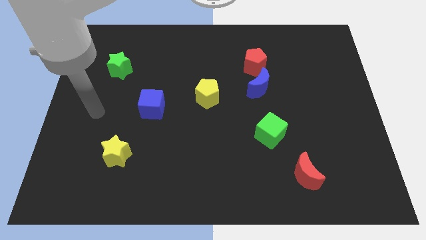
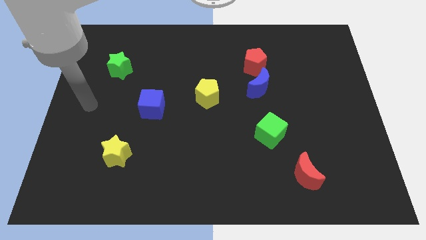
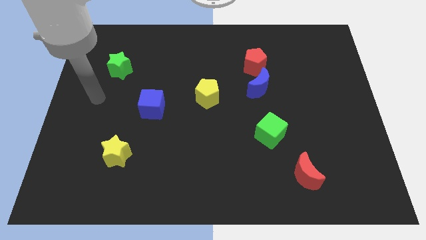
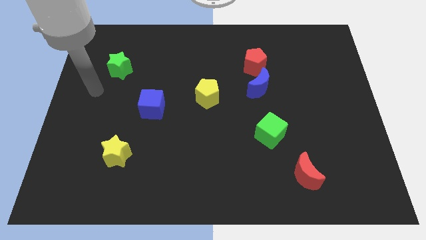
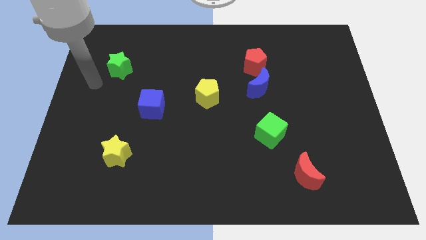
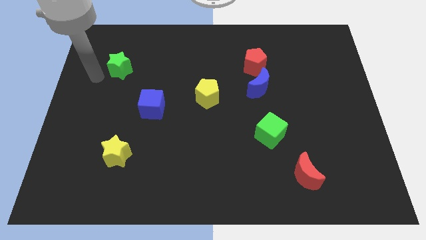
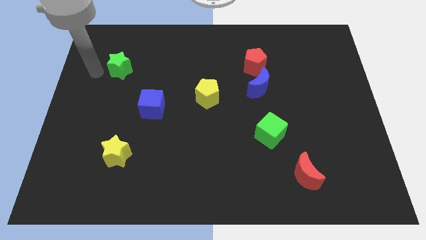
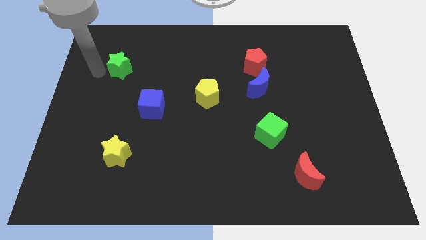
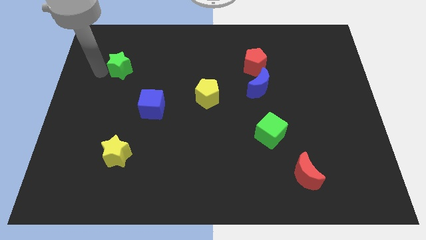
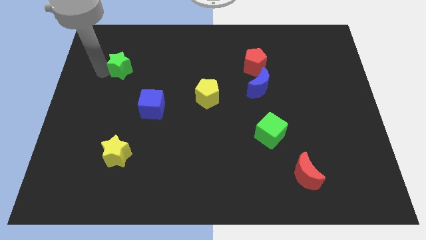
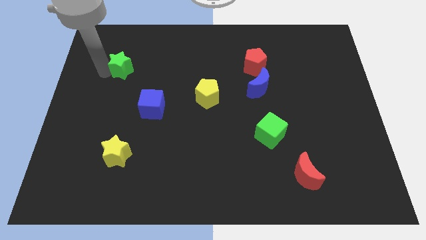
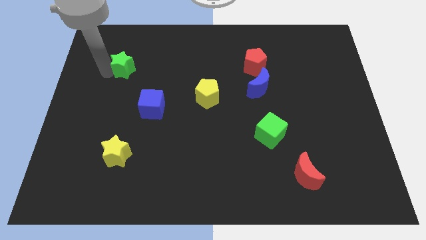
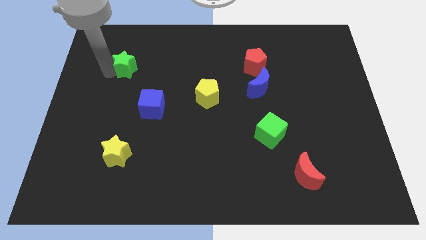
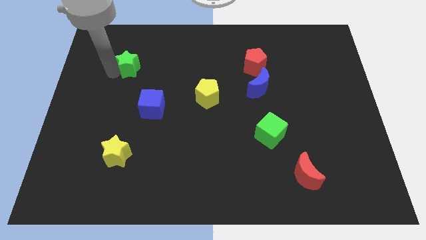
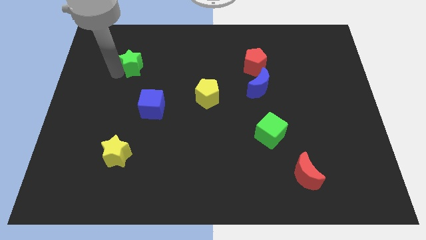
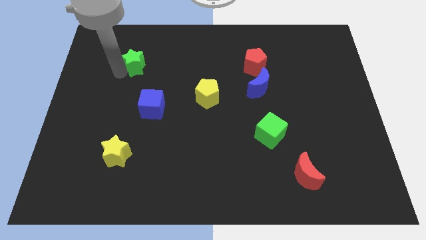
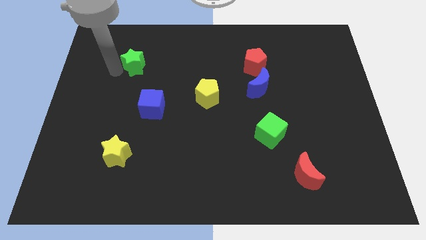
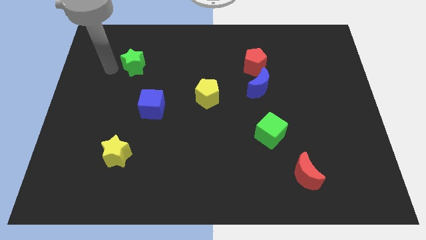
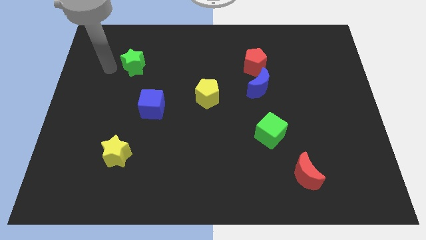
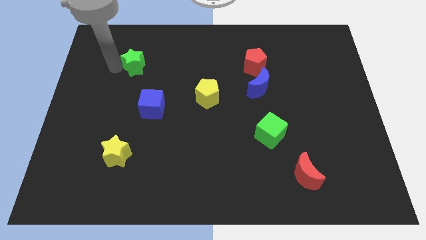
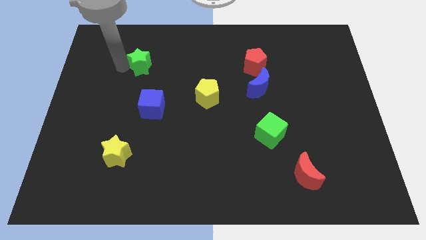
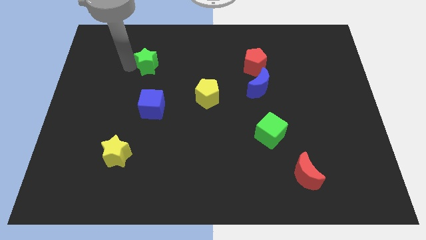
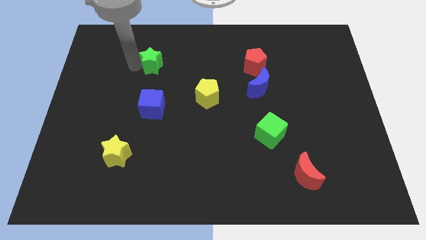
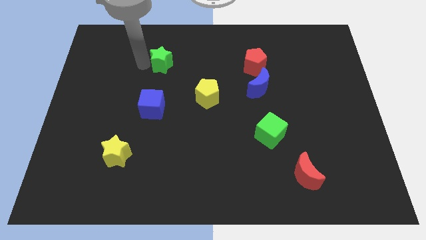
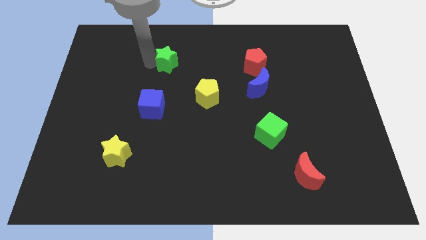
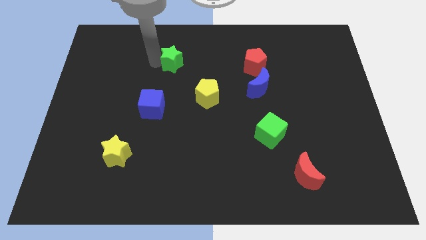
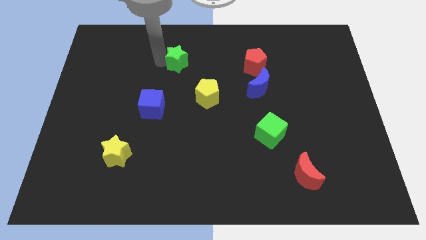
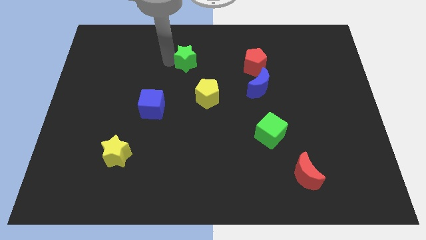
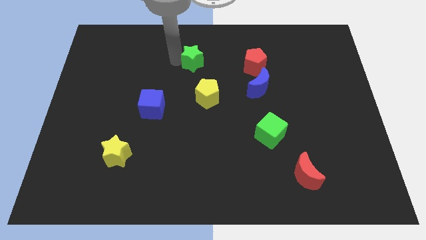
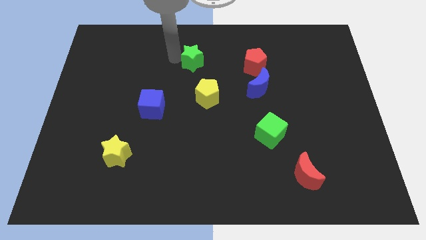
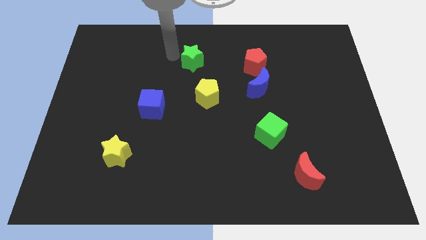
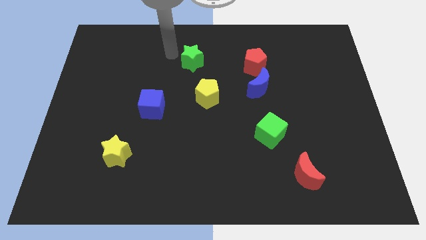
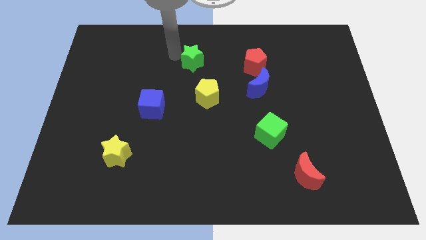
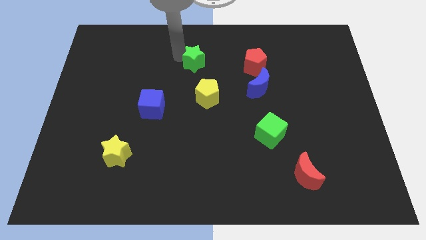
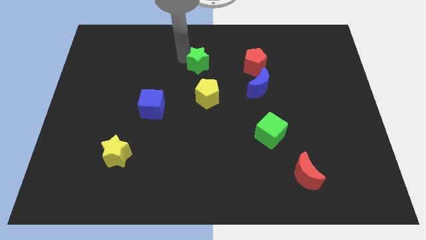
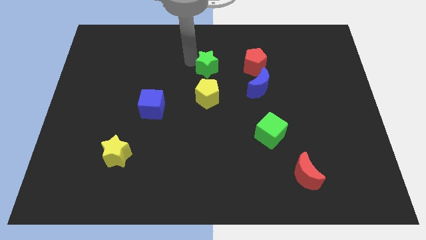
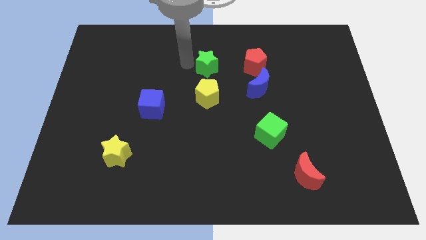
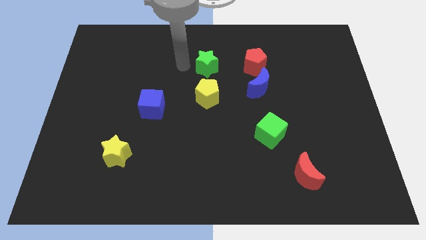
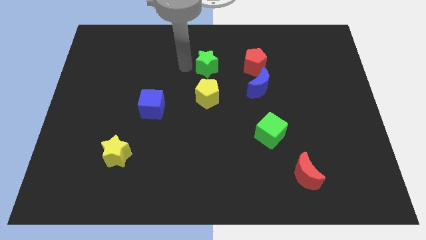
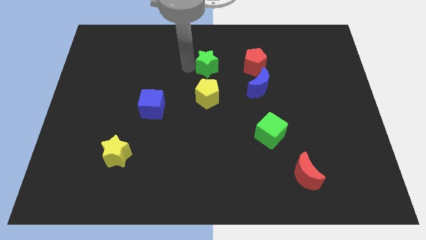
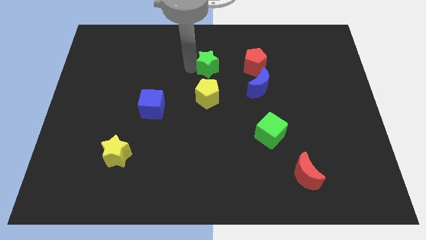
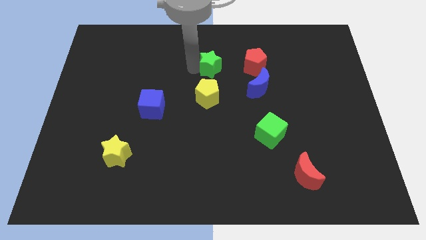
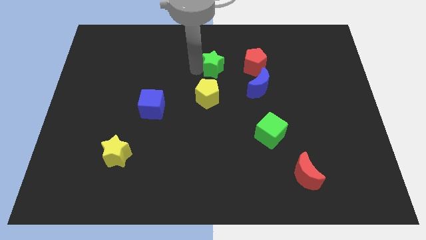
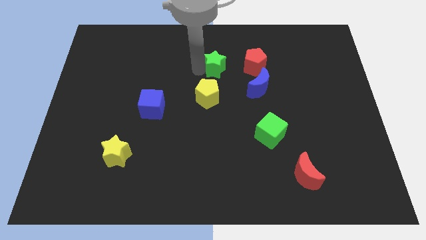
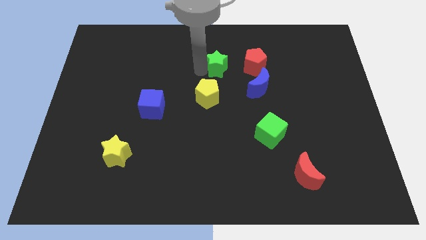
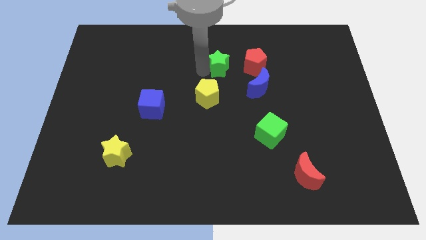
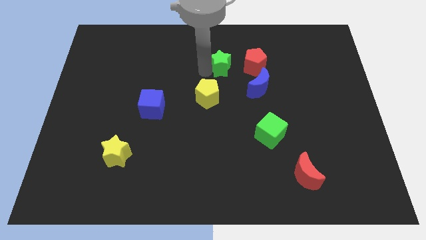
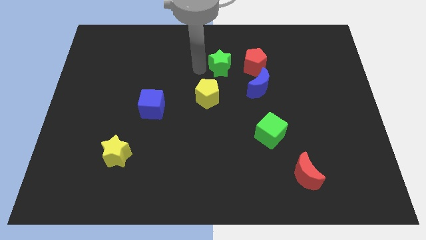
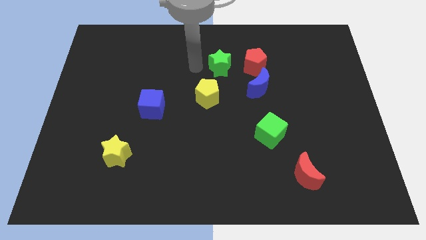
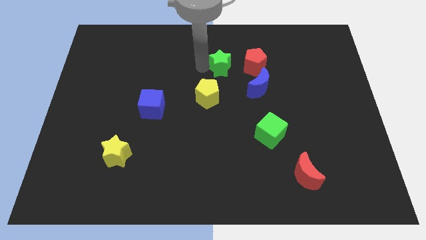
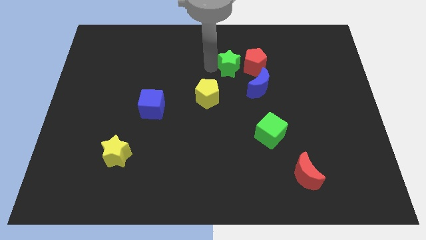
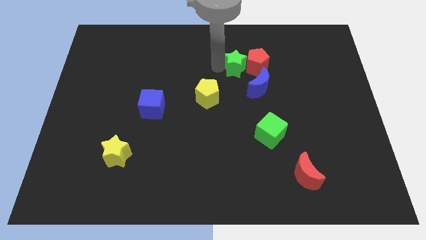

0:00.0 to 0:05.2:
put the green star next to the red pentagon

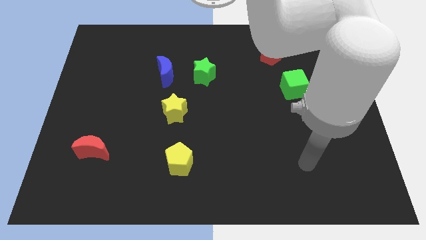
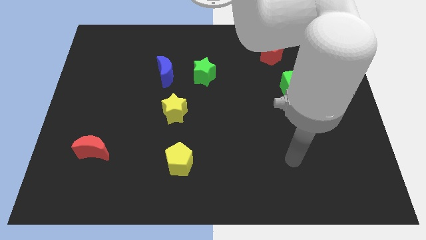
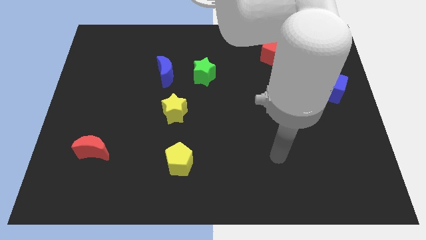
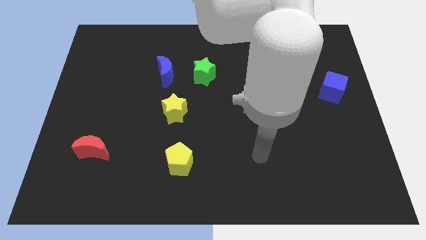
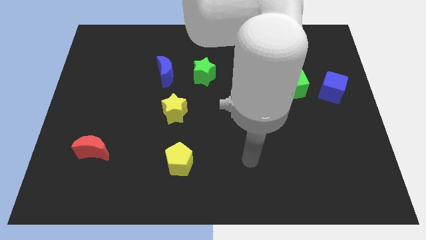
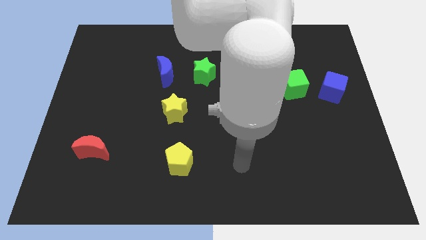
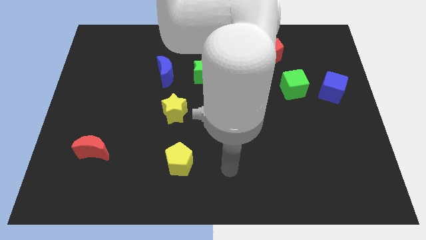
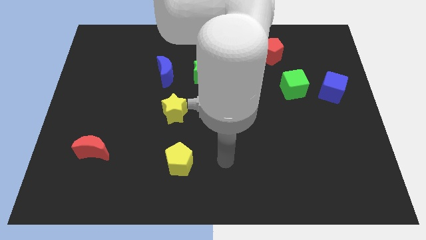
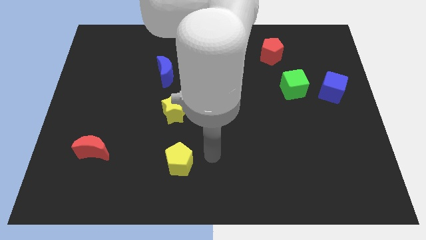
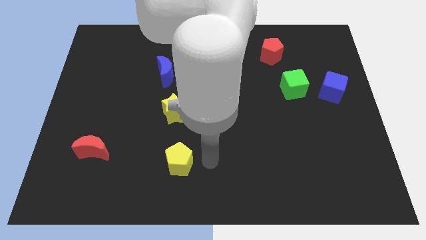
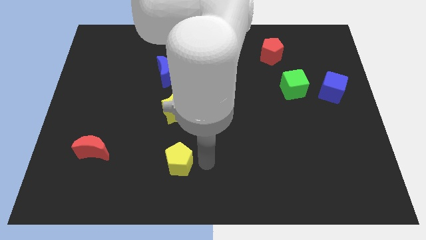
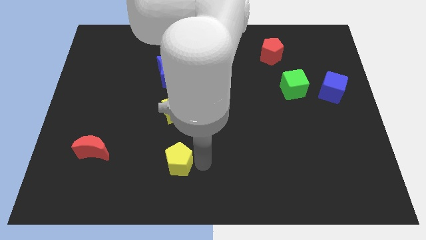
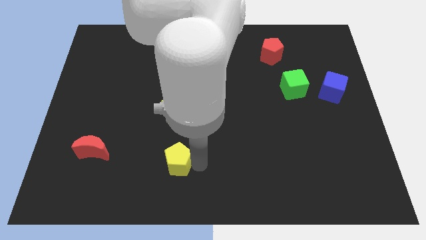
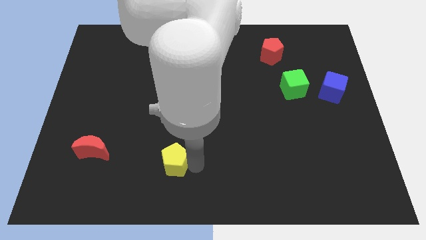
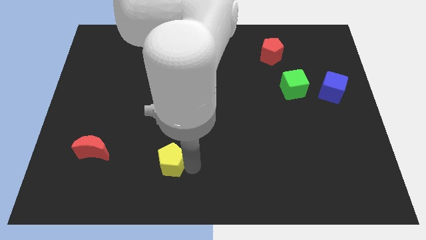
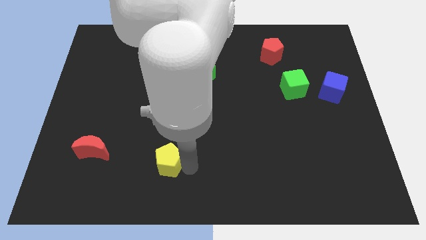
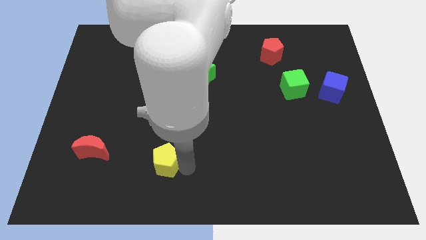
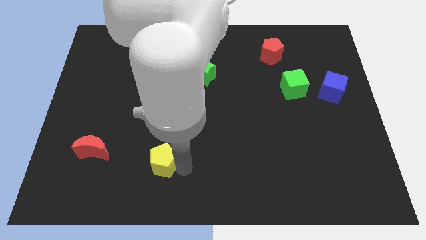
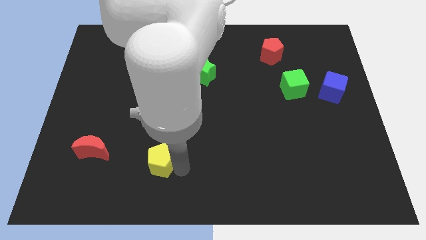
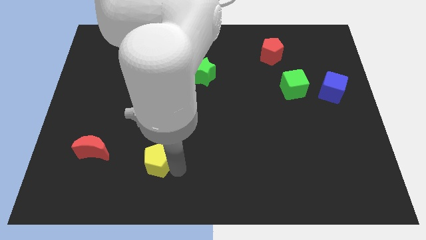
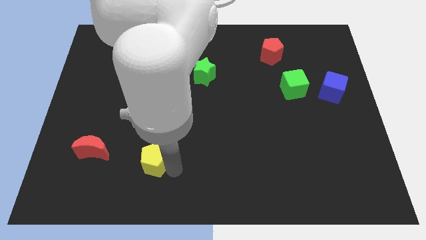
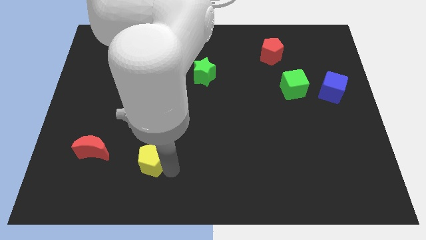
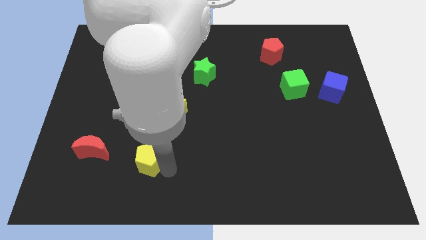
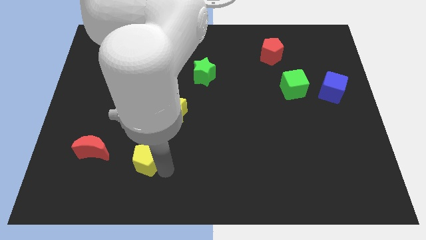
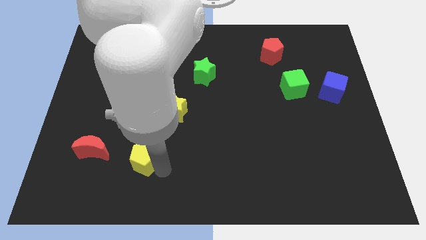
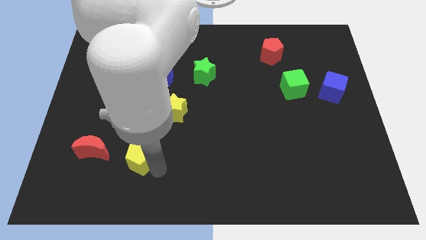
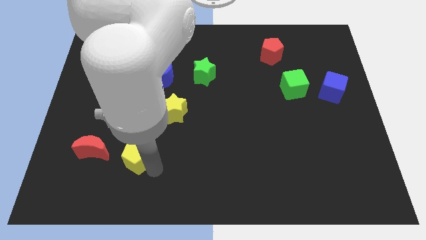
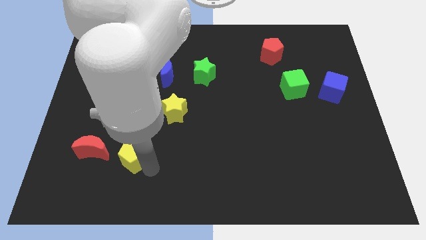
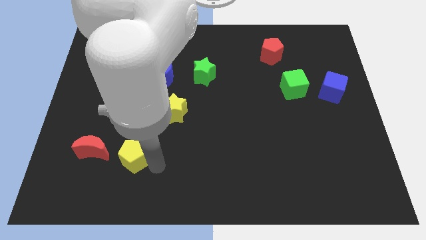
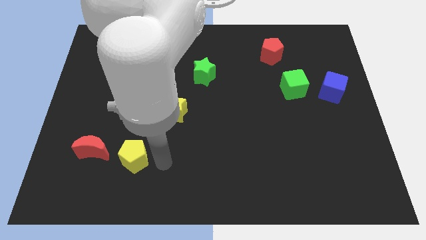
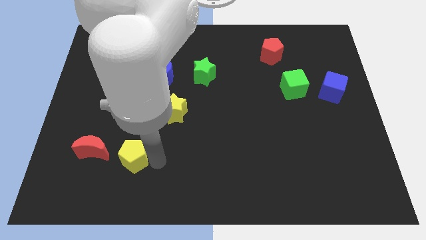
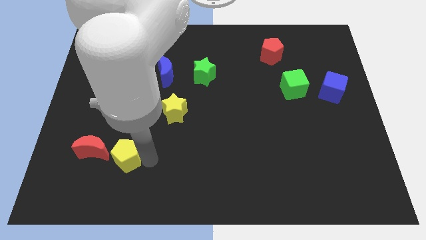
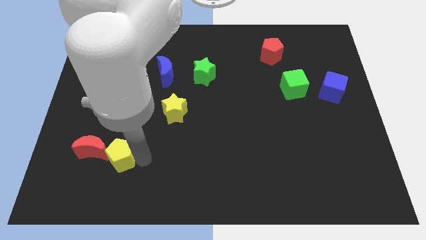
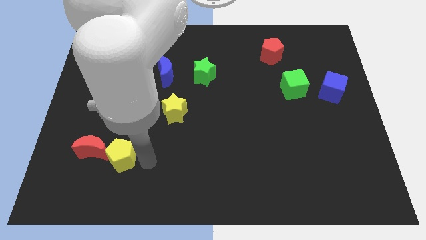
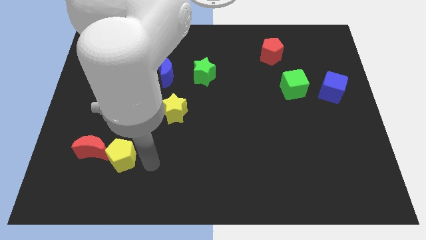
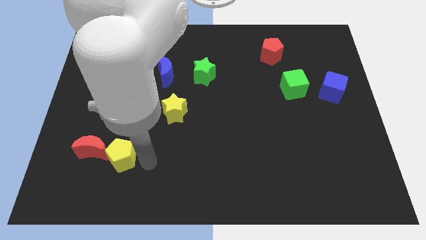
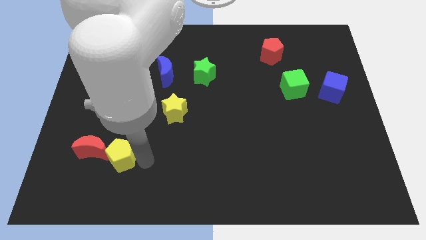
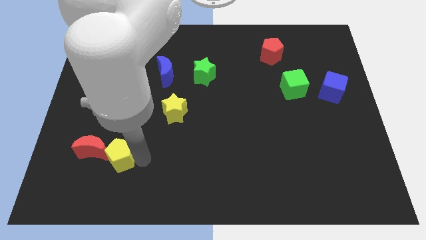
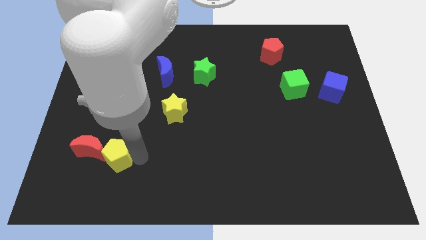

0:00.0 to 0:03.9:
put the yellow pentagon towards the red moon
